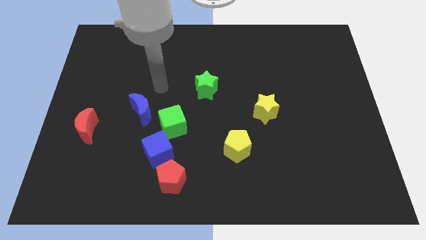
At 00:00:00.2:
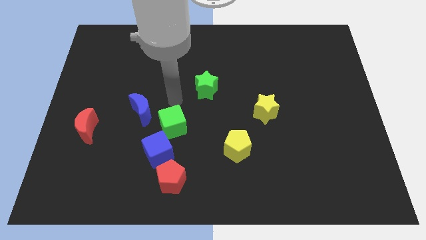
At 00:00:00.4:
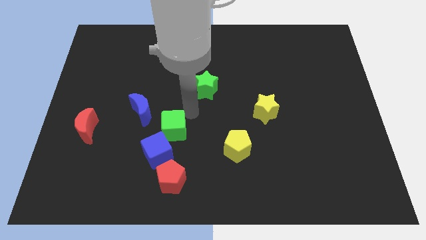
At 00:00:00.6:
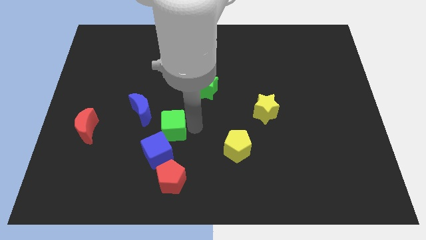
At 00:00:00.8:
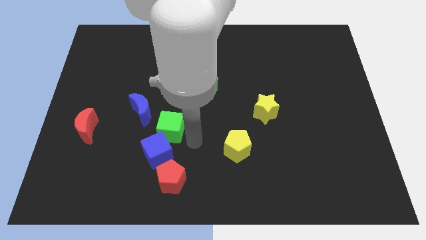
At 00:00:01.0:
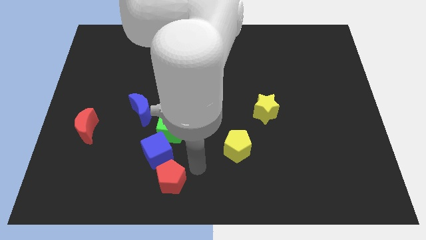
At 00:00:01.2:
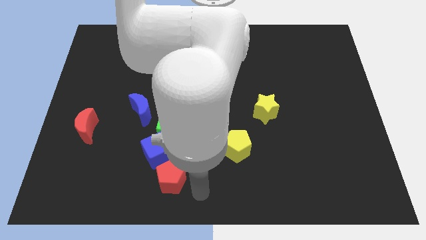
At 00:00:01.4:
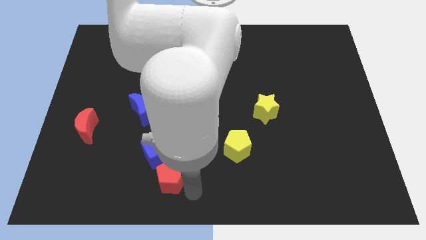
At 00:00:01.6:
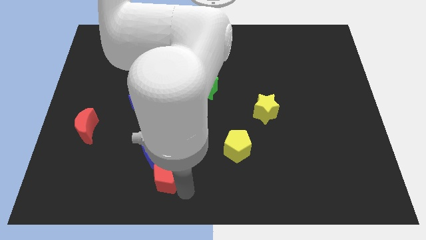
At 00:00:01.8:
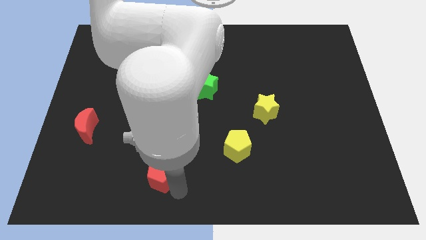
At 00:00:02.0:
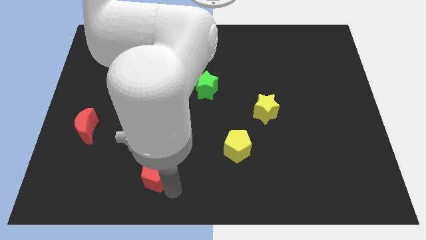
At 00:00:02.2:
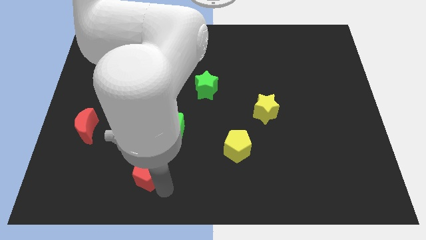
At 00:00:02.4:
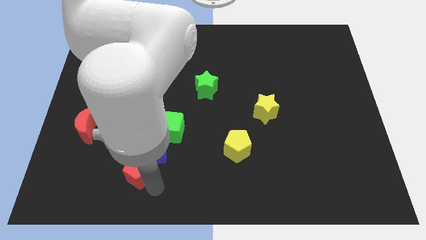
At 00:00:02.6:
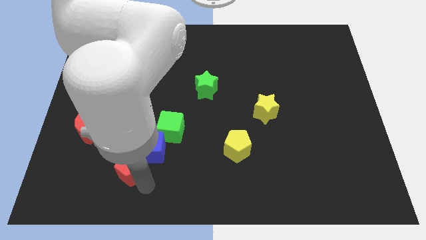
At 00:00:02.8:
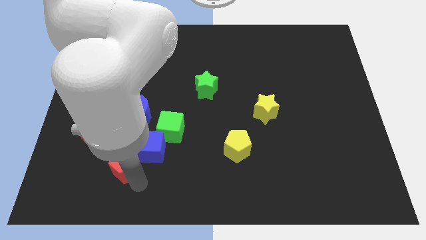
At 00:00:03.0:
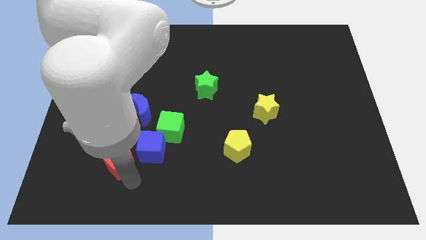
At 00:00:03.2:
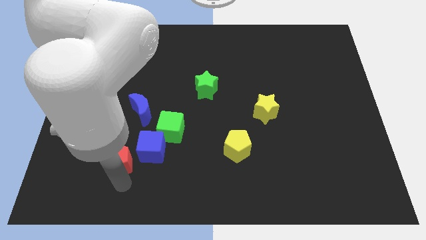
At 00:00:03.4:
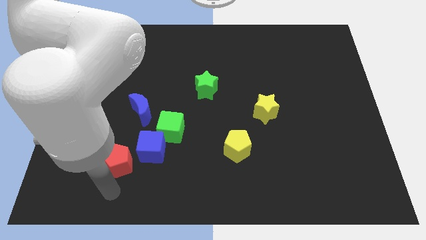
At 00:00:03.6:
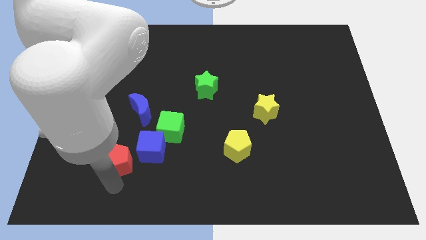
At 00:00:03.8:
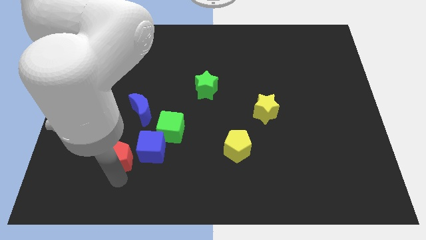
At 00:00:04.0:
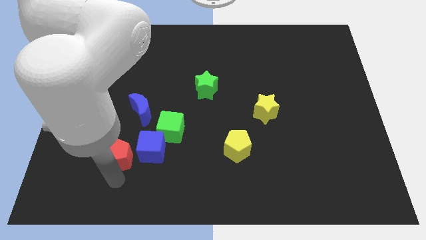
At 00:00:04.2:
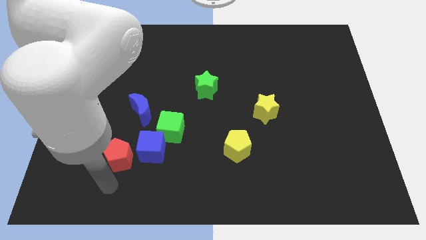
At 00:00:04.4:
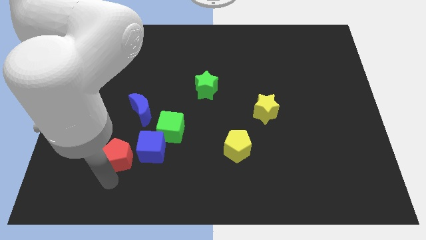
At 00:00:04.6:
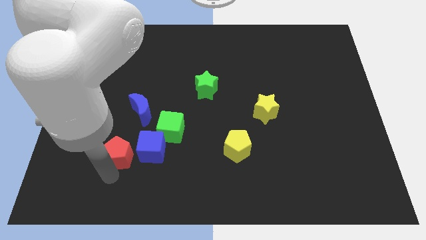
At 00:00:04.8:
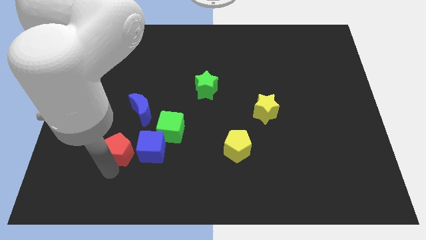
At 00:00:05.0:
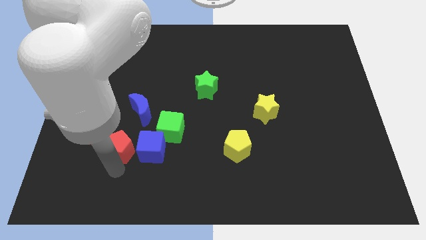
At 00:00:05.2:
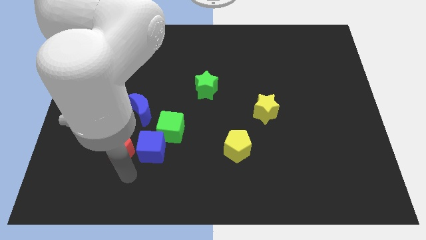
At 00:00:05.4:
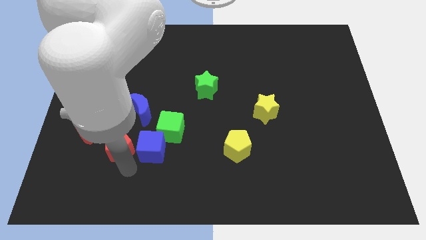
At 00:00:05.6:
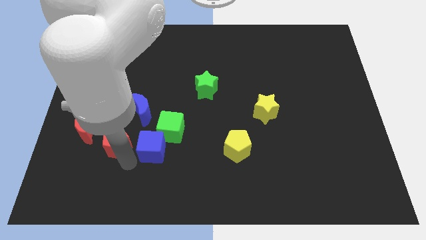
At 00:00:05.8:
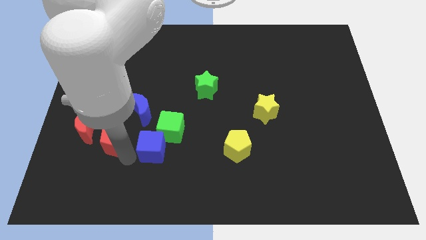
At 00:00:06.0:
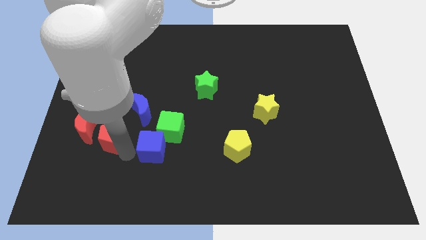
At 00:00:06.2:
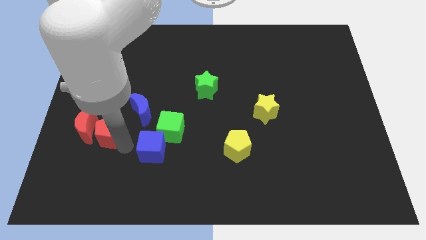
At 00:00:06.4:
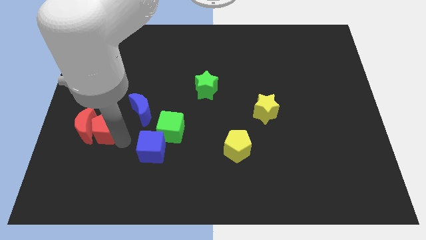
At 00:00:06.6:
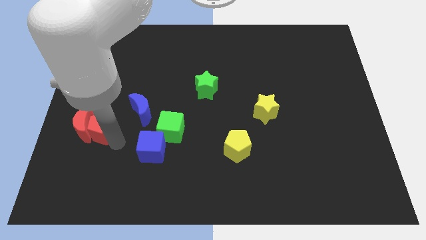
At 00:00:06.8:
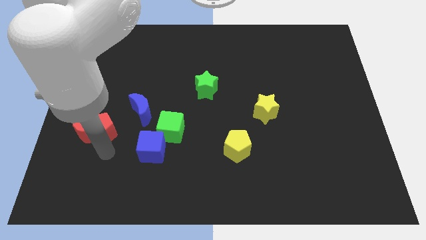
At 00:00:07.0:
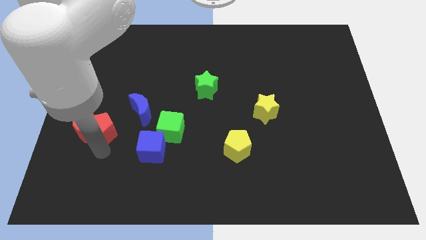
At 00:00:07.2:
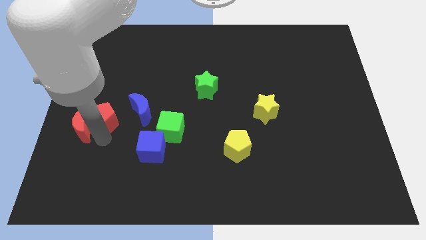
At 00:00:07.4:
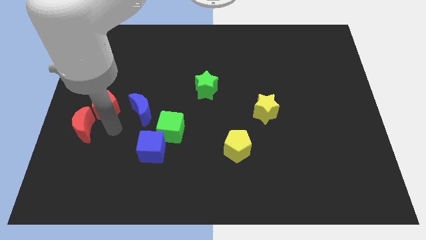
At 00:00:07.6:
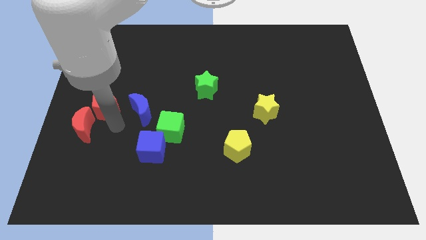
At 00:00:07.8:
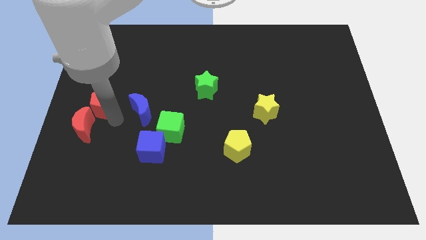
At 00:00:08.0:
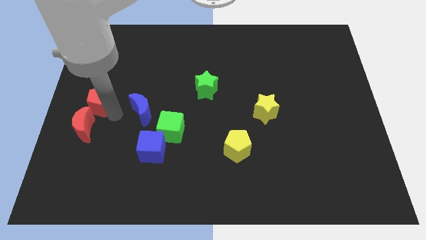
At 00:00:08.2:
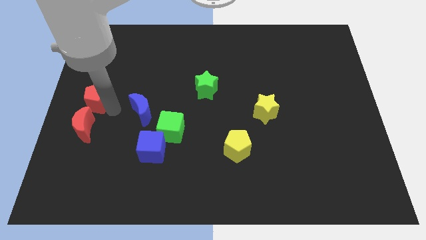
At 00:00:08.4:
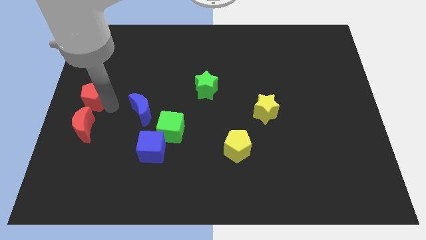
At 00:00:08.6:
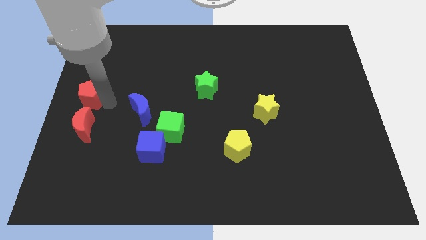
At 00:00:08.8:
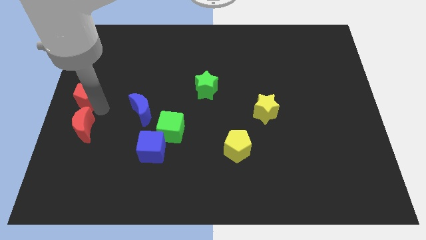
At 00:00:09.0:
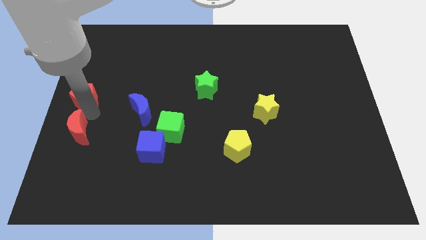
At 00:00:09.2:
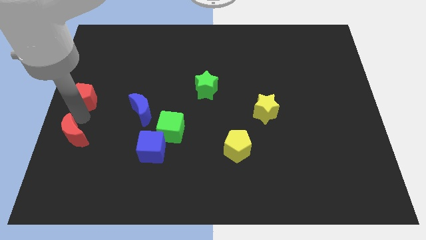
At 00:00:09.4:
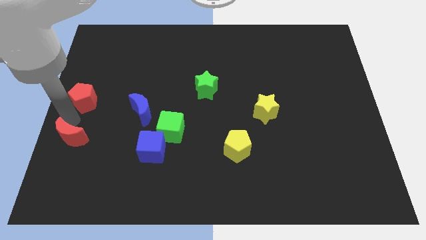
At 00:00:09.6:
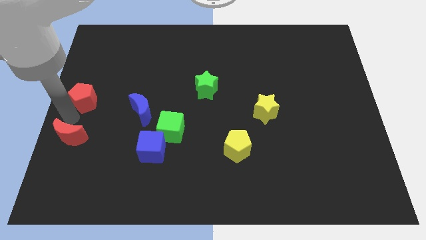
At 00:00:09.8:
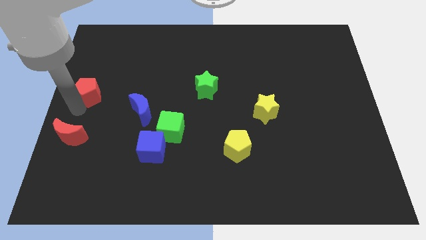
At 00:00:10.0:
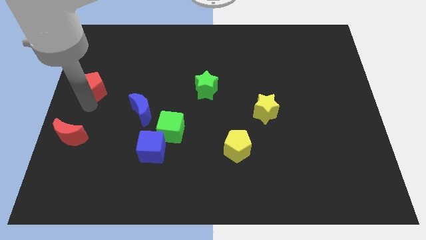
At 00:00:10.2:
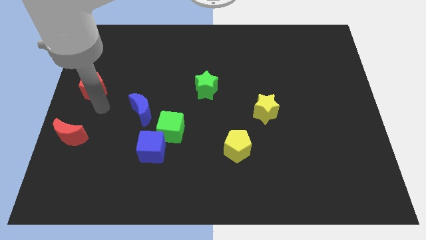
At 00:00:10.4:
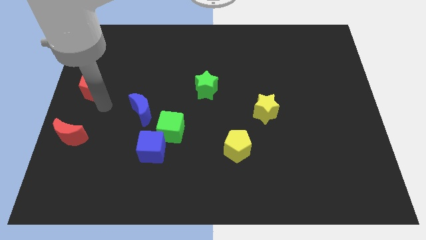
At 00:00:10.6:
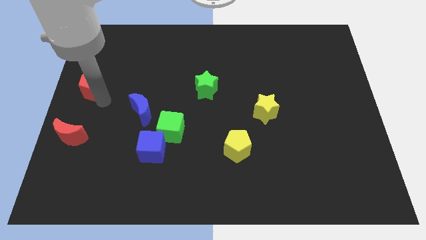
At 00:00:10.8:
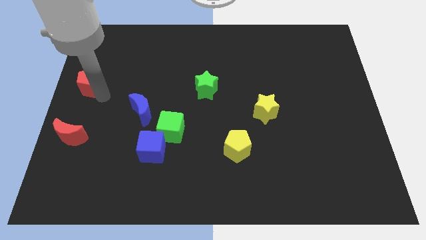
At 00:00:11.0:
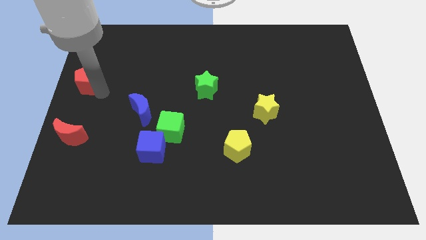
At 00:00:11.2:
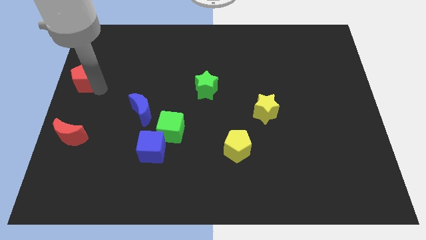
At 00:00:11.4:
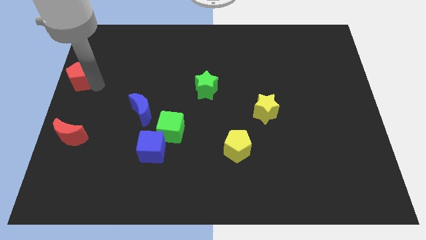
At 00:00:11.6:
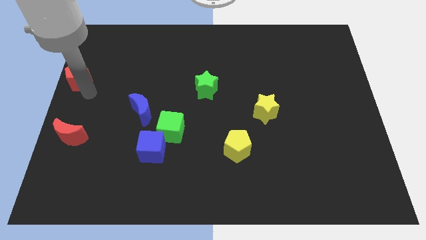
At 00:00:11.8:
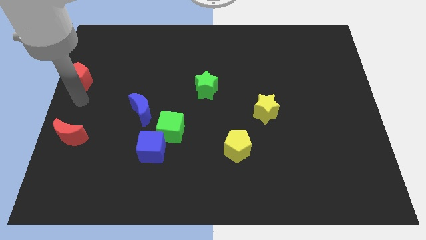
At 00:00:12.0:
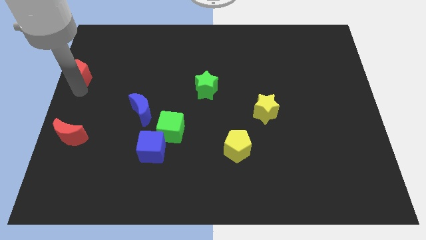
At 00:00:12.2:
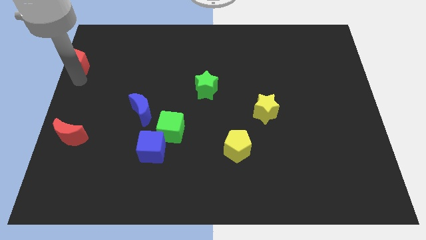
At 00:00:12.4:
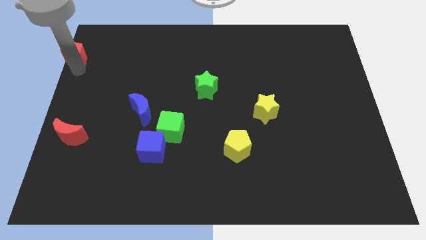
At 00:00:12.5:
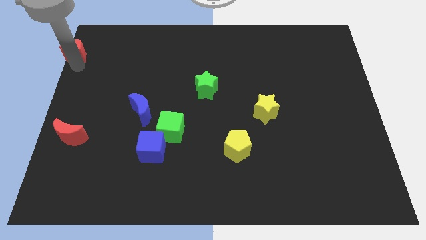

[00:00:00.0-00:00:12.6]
slide the red pentagon to the top left of the board

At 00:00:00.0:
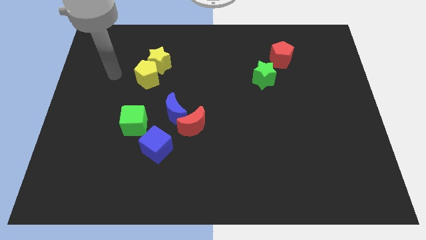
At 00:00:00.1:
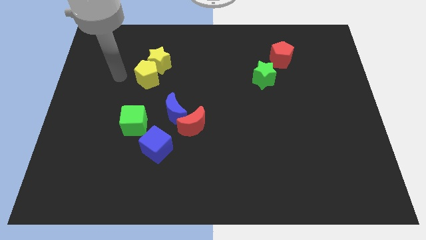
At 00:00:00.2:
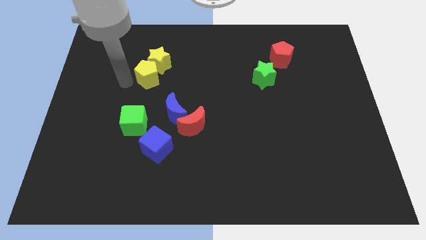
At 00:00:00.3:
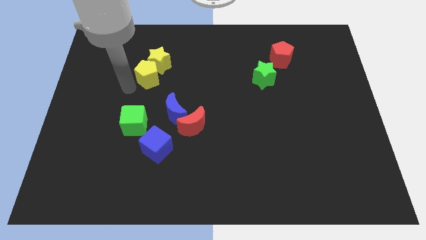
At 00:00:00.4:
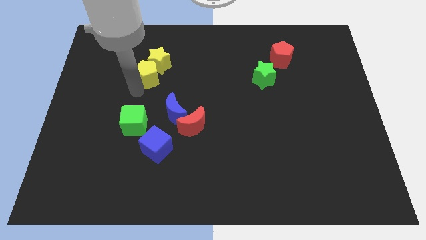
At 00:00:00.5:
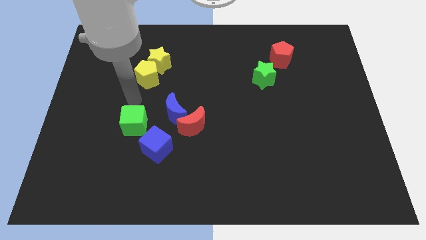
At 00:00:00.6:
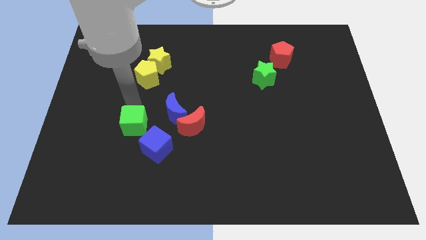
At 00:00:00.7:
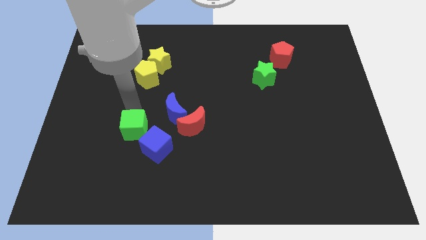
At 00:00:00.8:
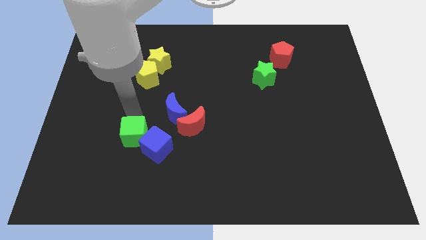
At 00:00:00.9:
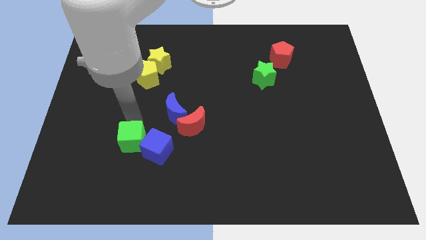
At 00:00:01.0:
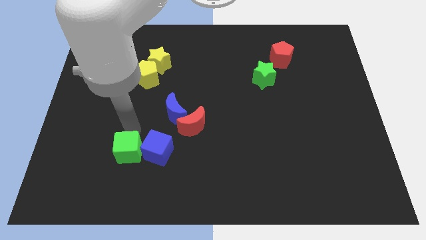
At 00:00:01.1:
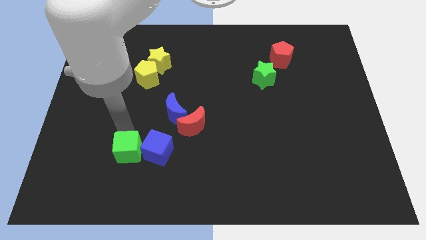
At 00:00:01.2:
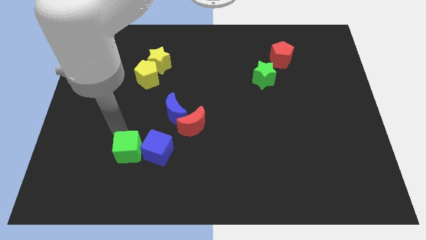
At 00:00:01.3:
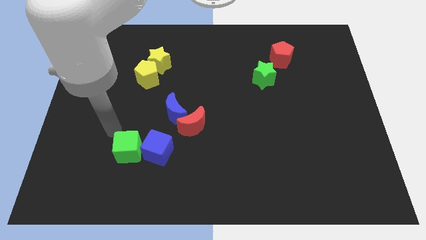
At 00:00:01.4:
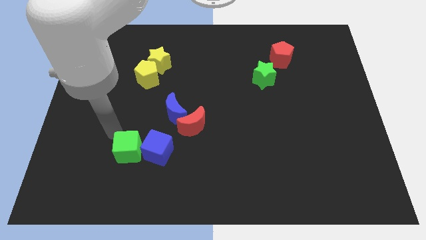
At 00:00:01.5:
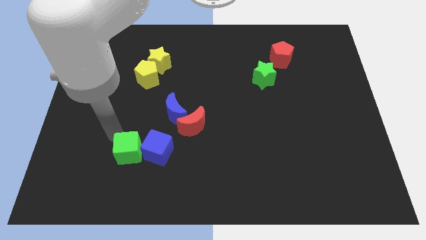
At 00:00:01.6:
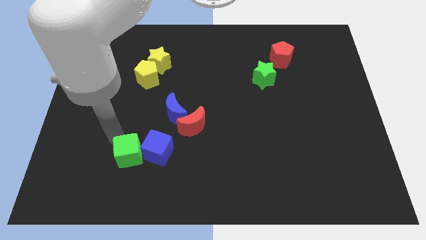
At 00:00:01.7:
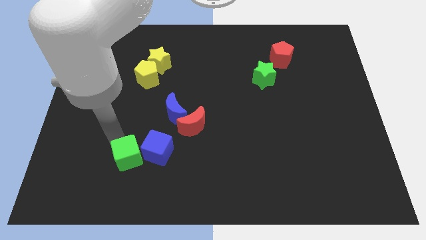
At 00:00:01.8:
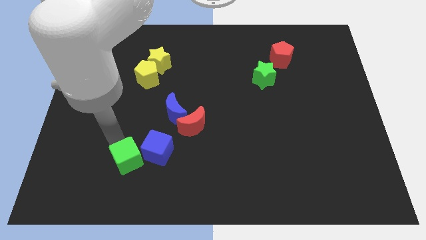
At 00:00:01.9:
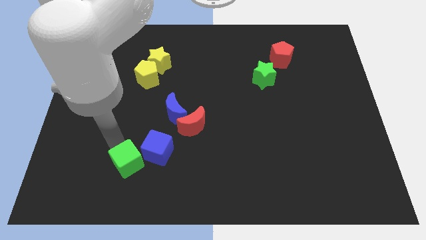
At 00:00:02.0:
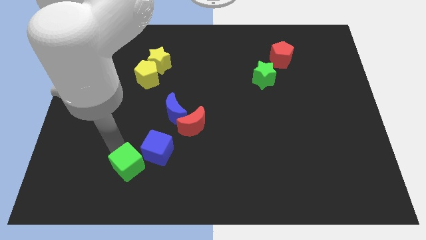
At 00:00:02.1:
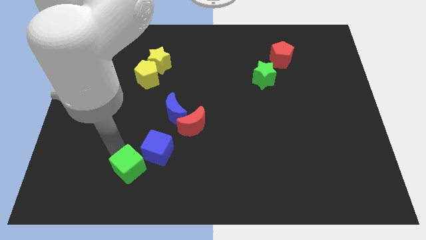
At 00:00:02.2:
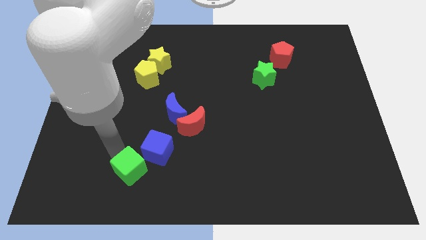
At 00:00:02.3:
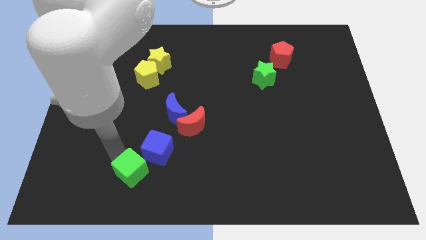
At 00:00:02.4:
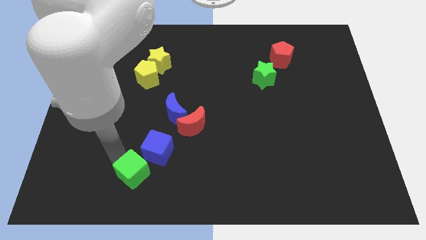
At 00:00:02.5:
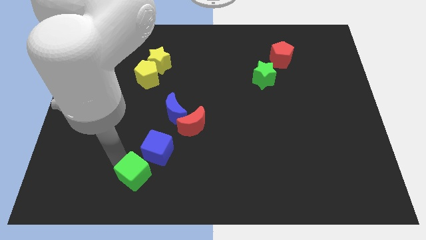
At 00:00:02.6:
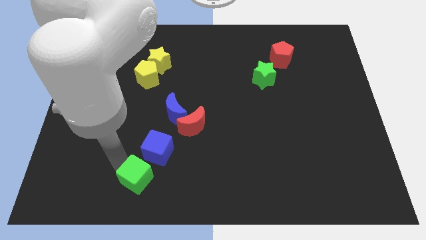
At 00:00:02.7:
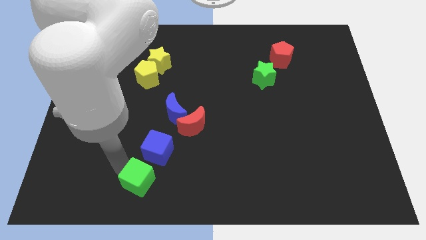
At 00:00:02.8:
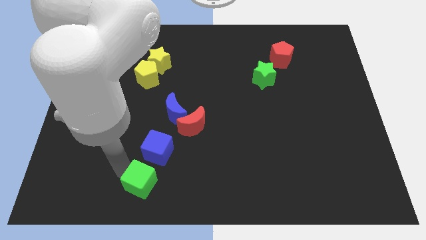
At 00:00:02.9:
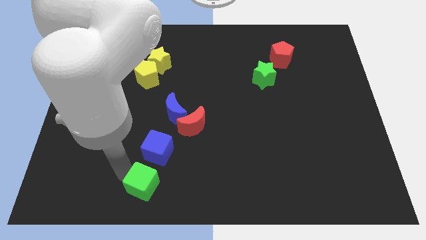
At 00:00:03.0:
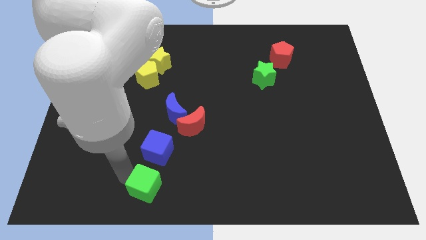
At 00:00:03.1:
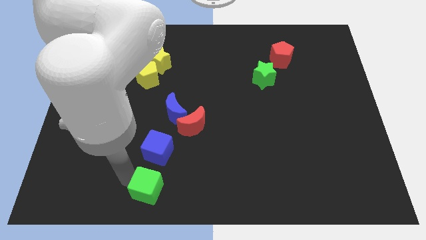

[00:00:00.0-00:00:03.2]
put the green cube to the bottom side
